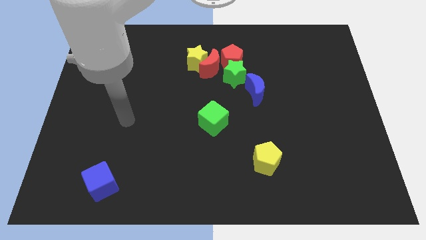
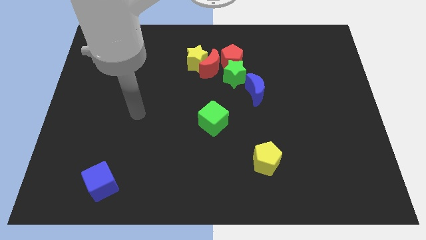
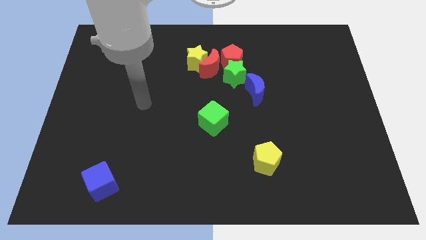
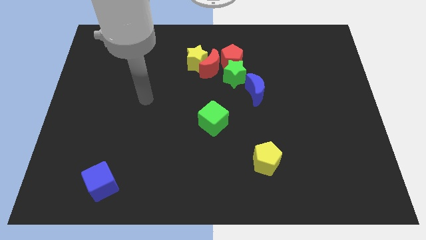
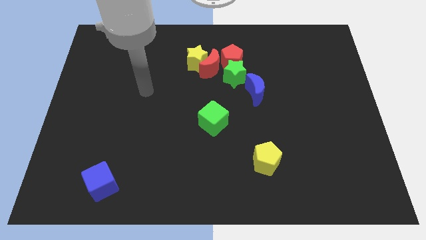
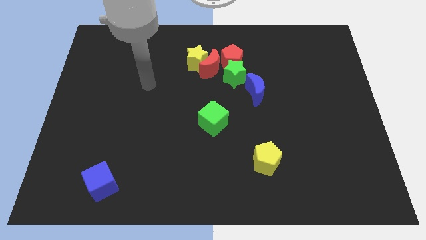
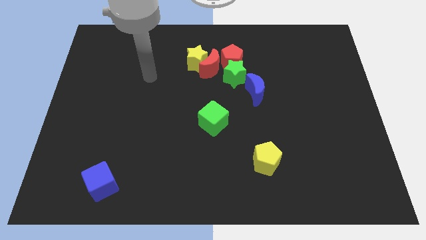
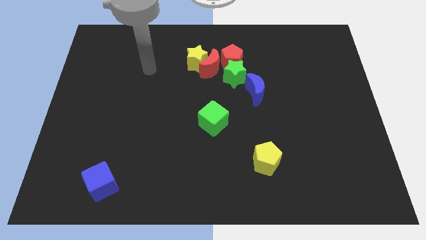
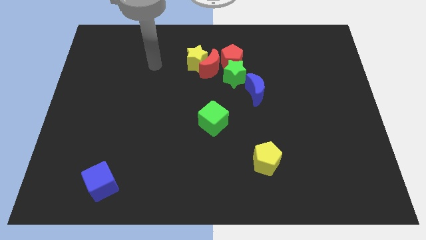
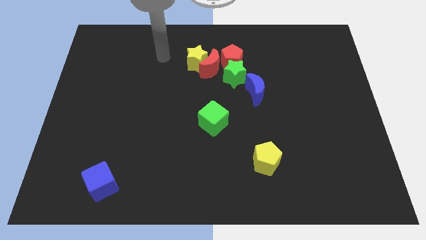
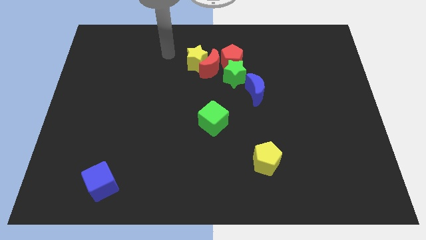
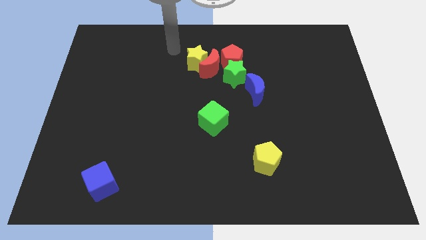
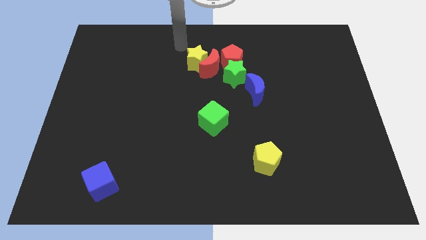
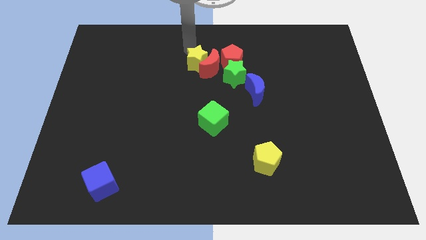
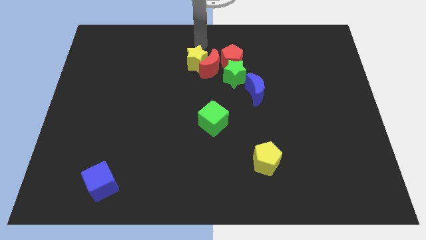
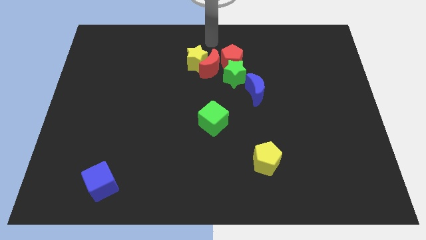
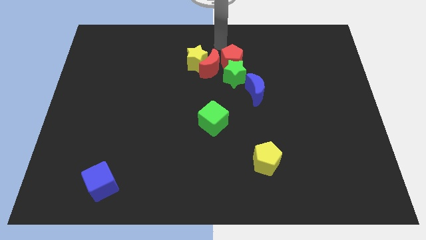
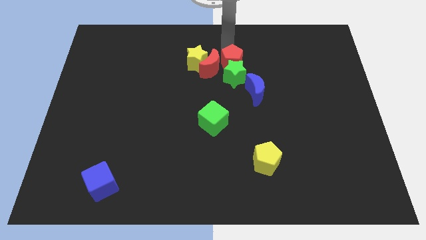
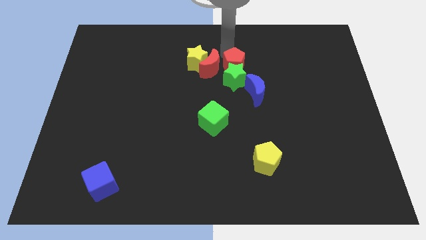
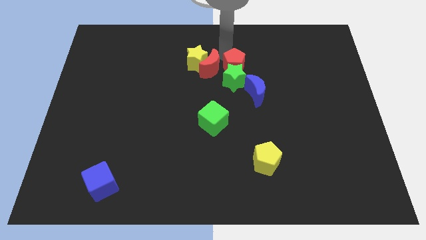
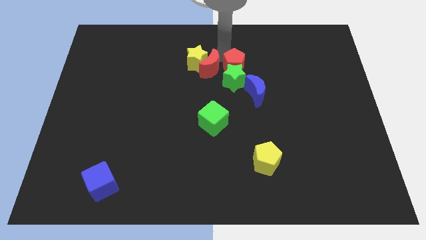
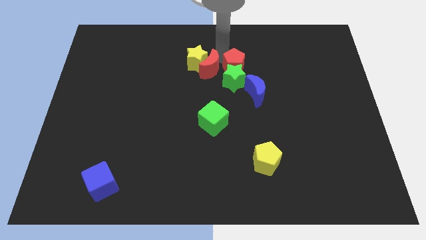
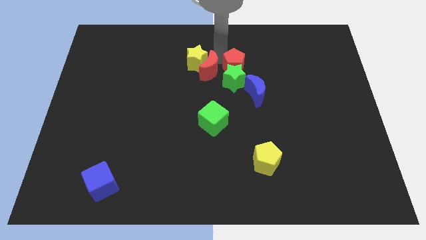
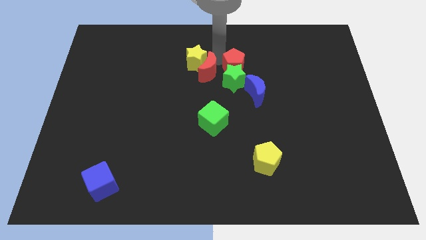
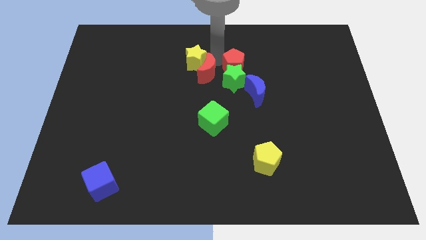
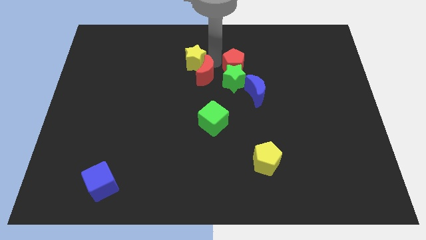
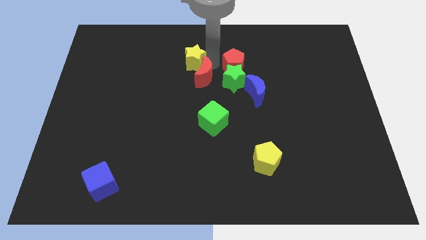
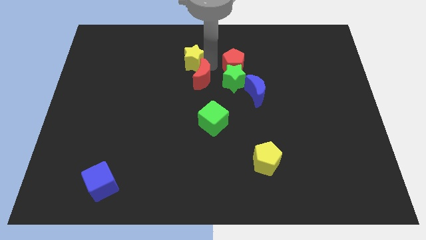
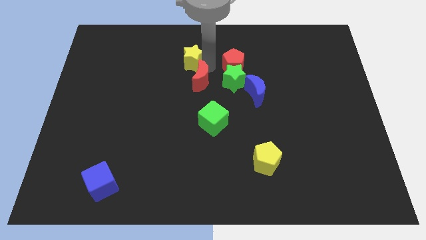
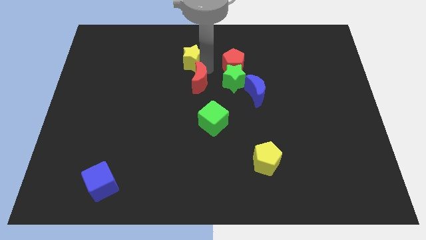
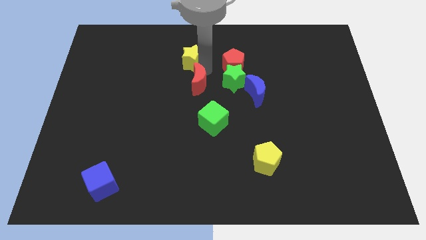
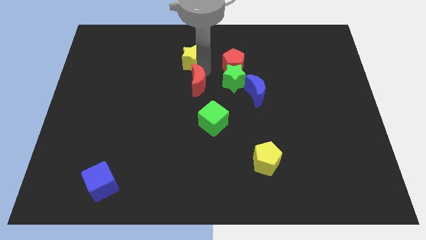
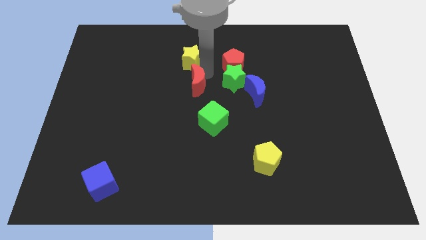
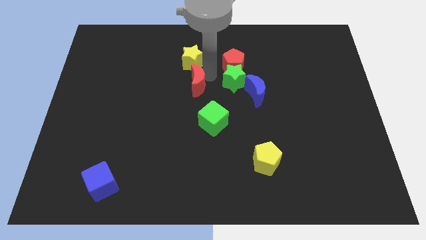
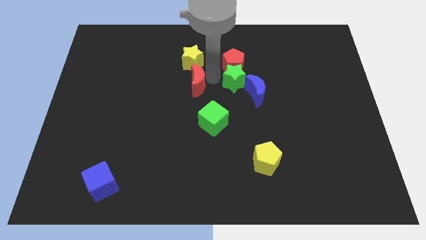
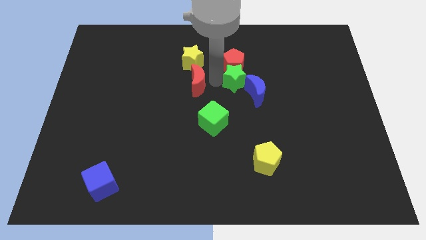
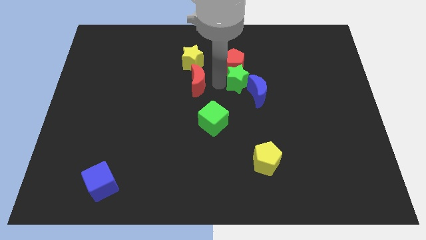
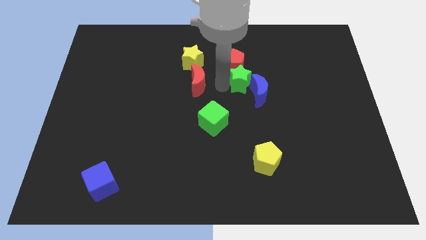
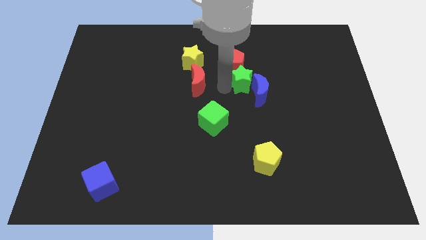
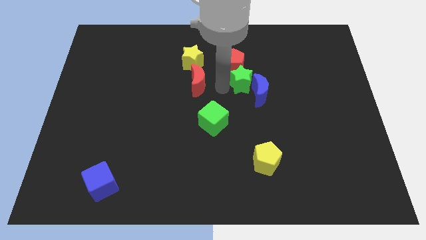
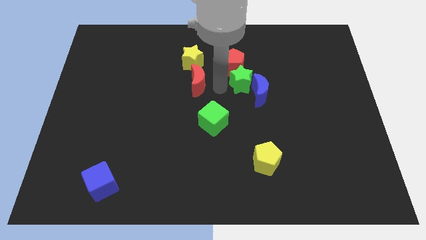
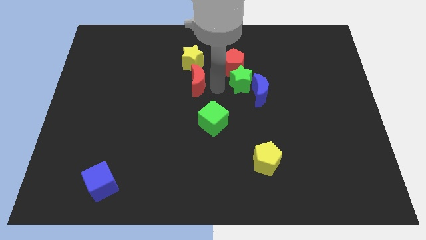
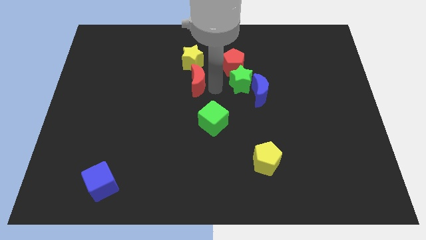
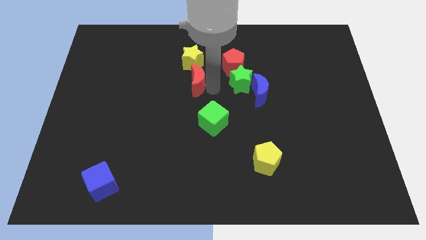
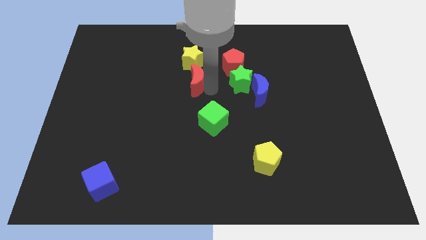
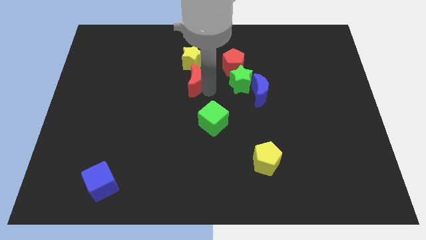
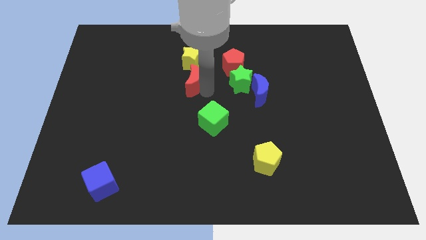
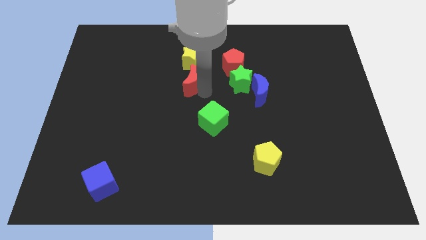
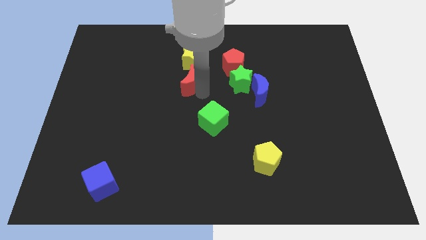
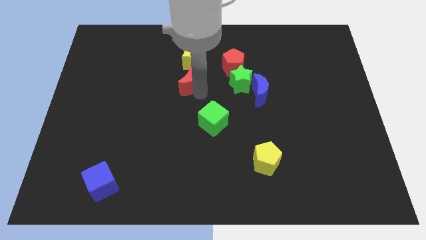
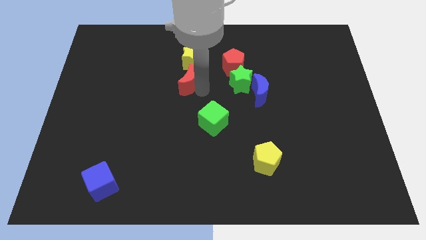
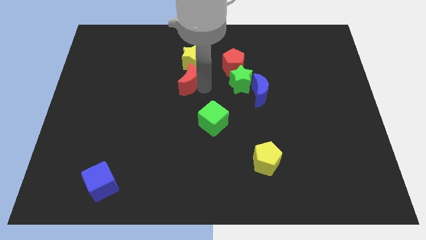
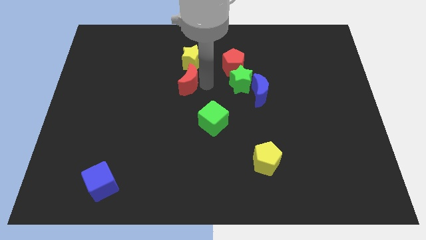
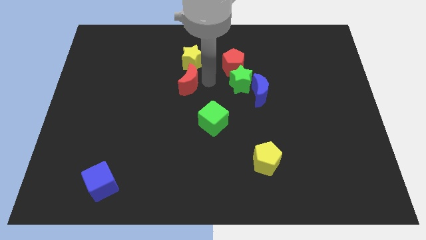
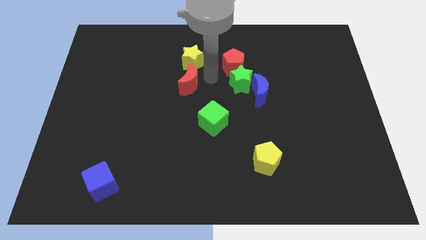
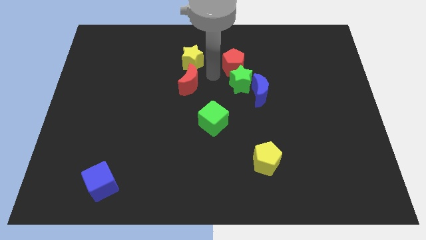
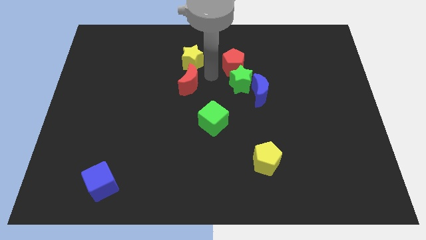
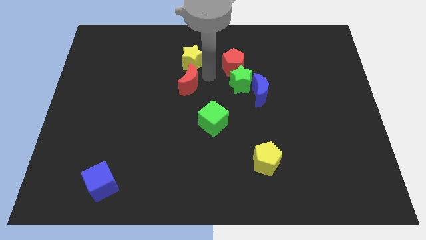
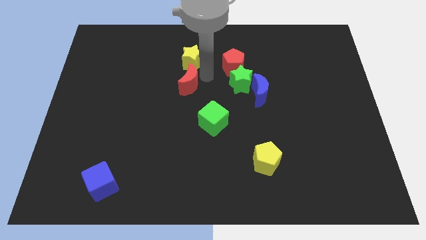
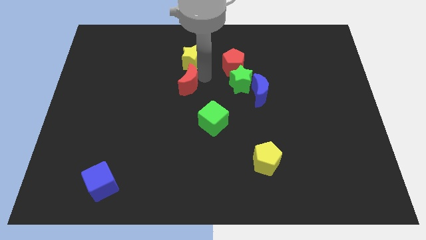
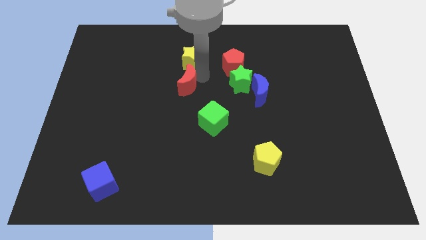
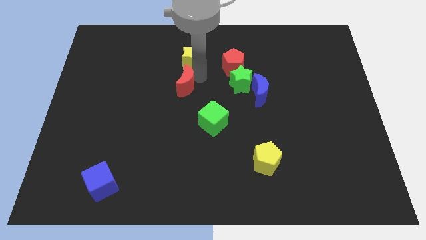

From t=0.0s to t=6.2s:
move the red moon away from the yellow star, red pentagon, and green star

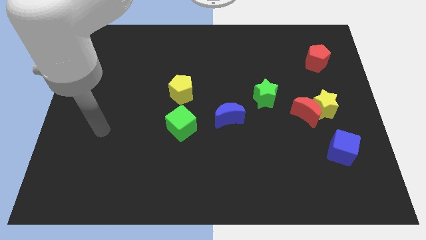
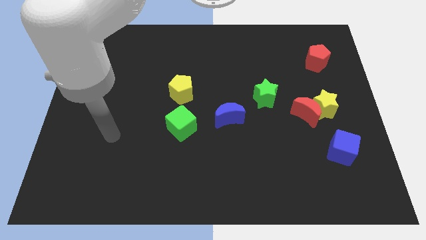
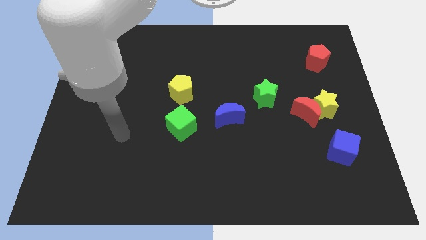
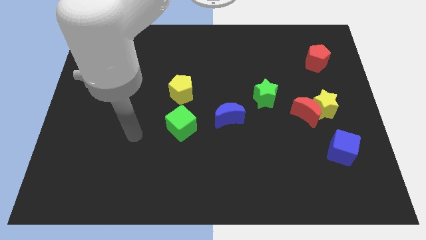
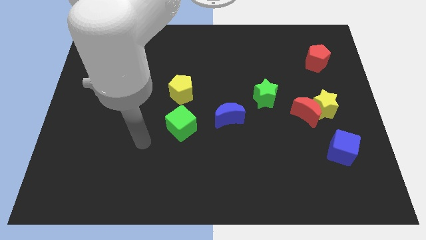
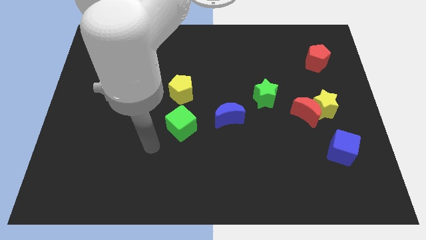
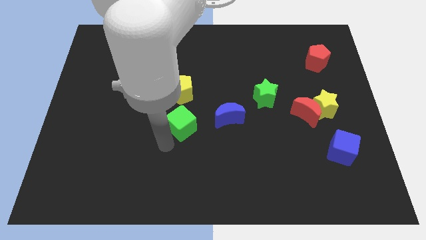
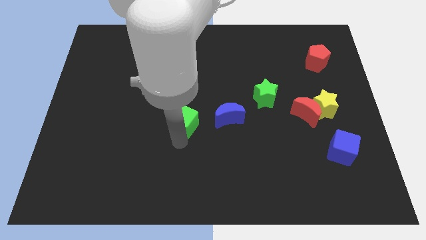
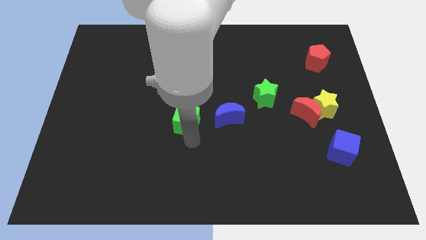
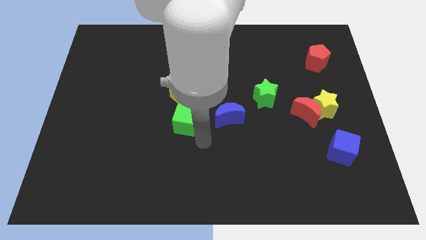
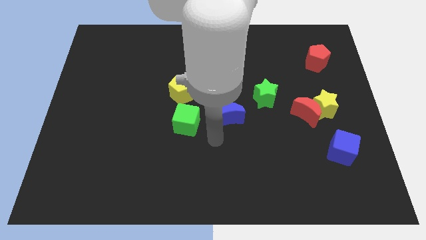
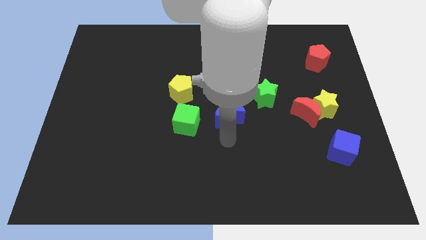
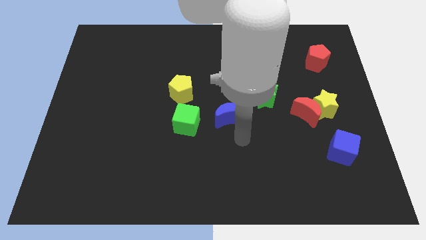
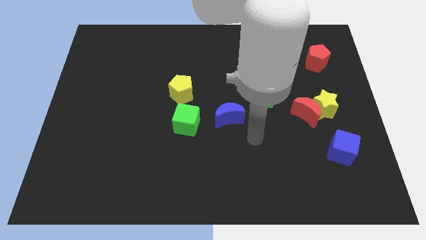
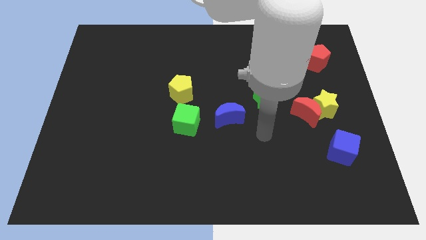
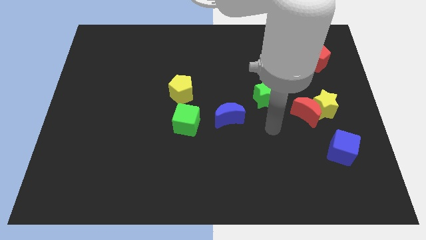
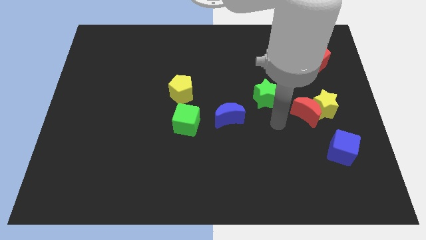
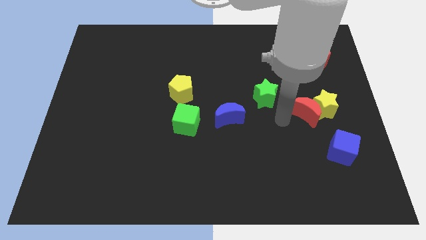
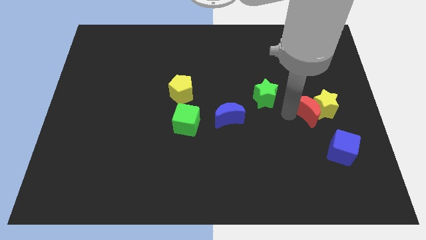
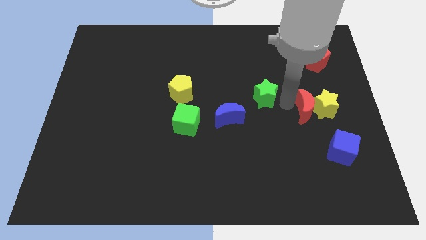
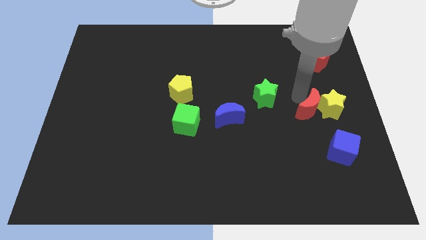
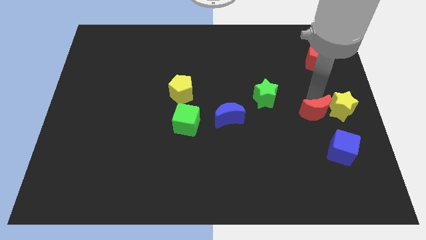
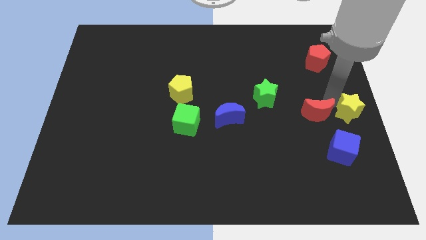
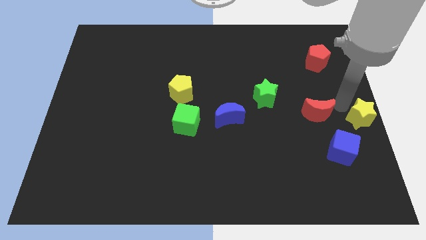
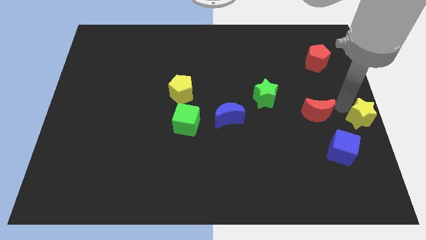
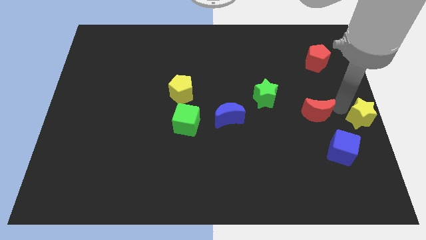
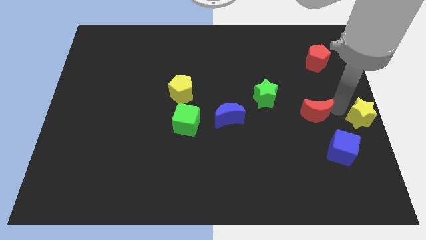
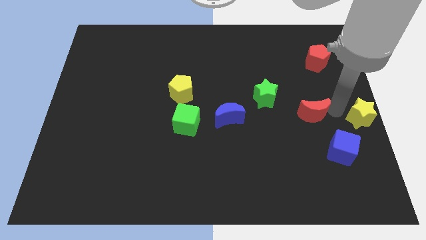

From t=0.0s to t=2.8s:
pull the red moon apart from the yellow star

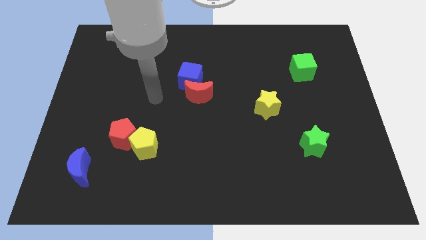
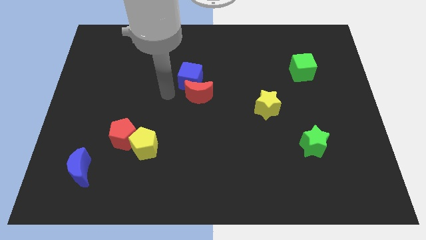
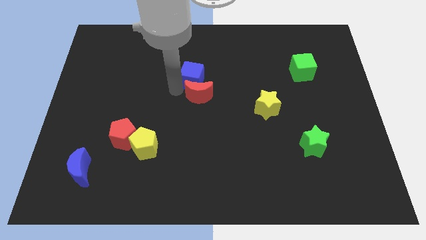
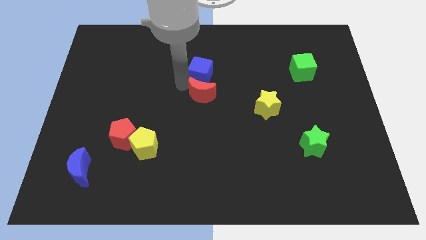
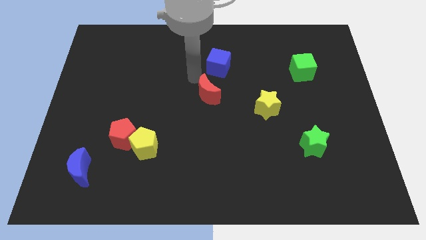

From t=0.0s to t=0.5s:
separate the red moon from the blue cube
